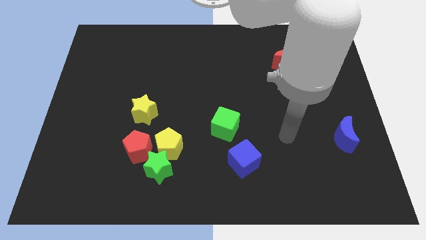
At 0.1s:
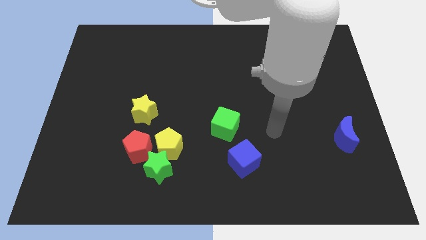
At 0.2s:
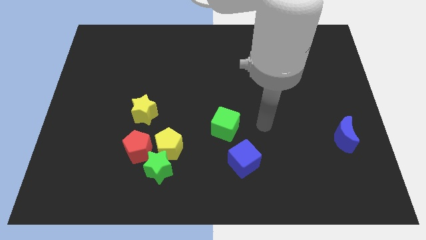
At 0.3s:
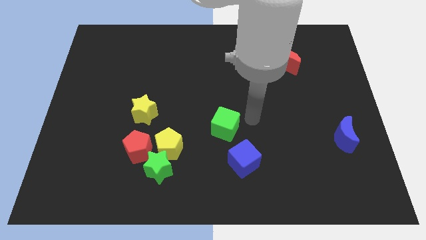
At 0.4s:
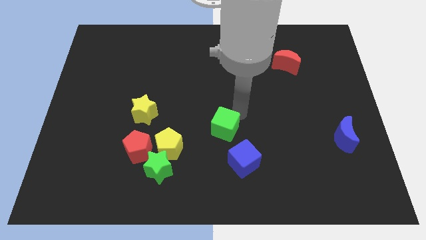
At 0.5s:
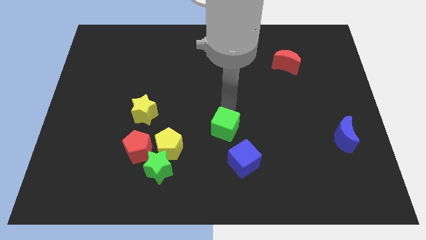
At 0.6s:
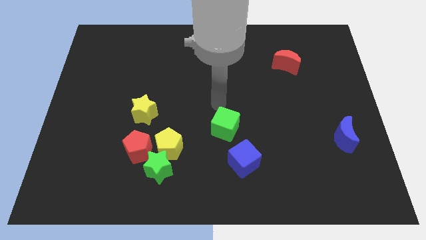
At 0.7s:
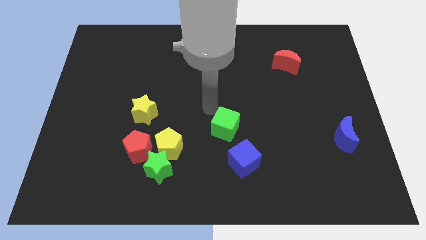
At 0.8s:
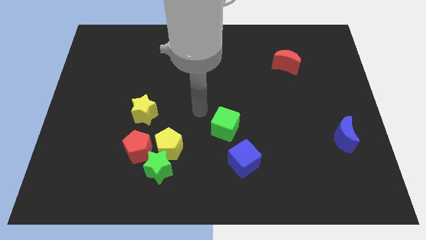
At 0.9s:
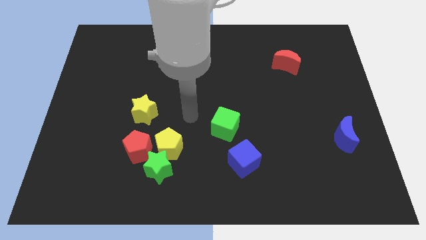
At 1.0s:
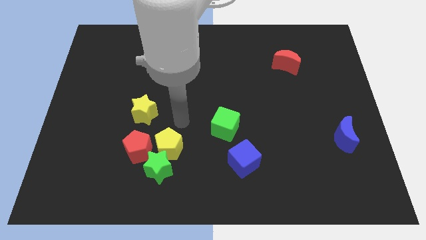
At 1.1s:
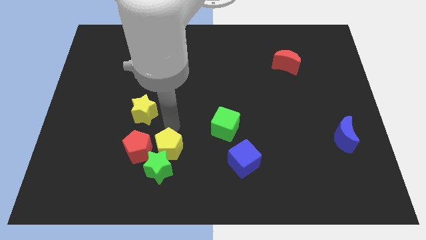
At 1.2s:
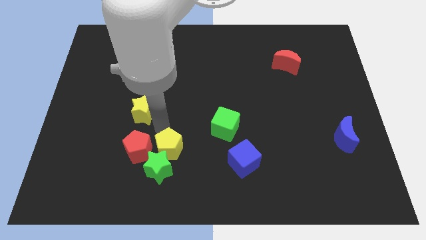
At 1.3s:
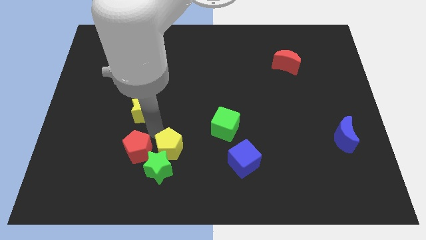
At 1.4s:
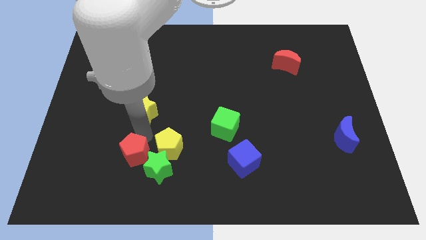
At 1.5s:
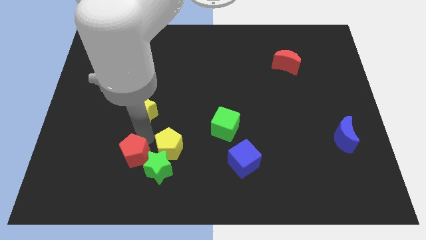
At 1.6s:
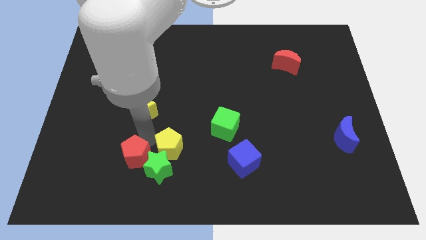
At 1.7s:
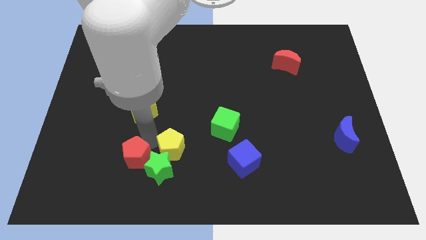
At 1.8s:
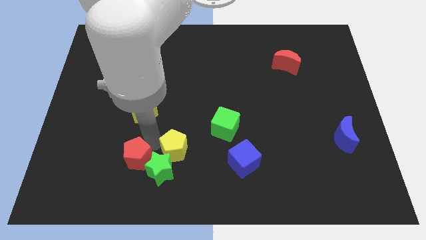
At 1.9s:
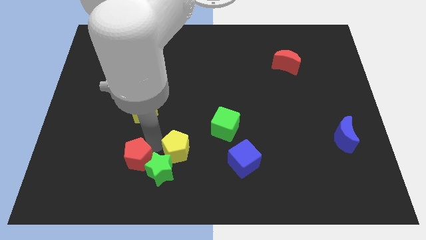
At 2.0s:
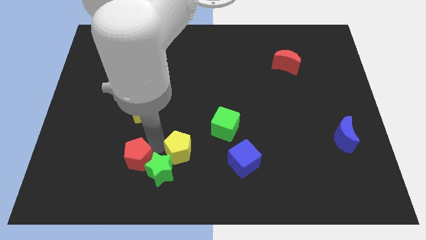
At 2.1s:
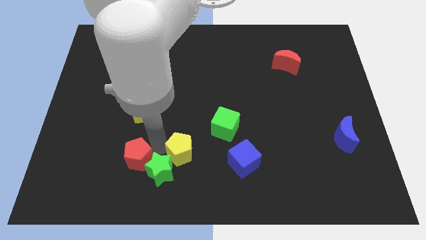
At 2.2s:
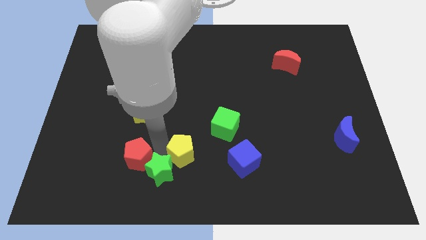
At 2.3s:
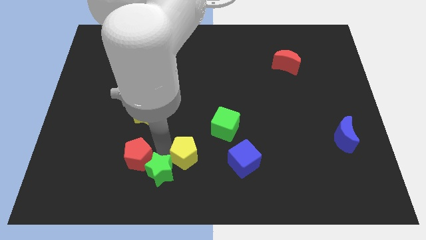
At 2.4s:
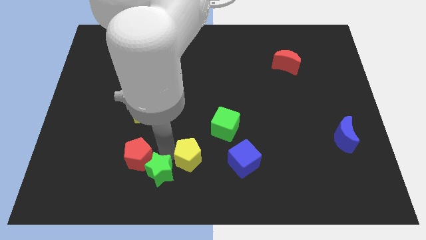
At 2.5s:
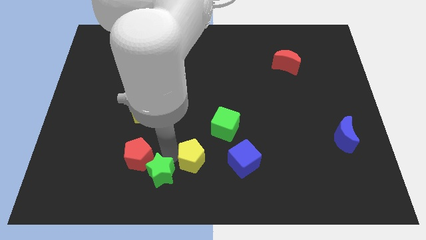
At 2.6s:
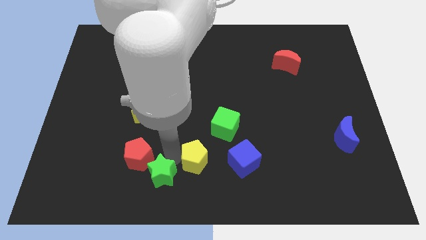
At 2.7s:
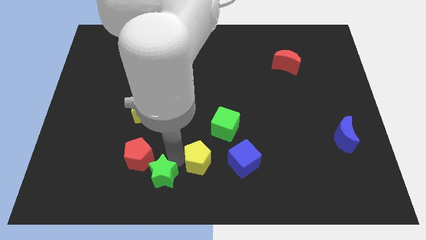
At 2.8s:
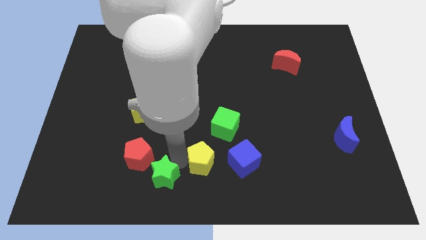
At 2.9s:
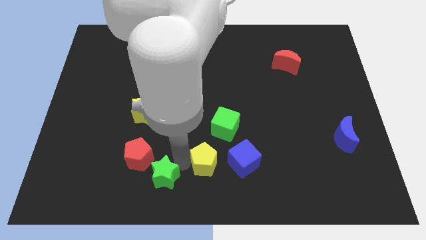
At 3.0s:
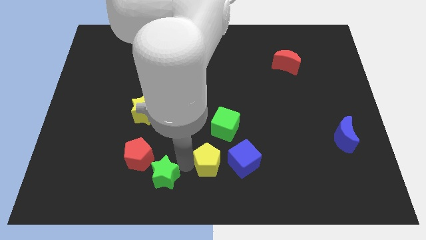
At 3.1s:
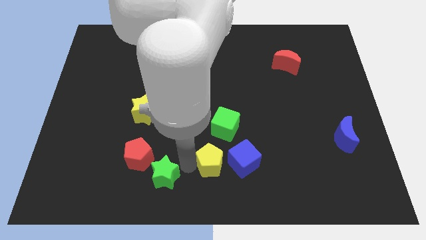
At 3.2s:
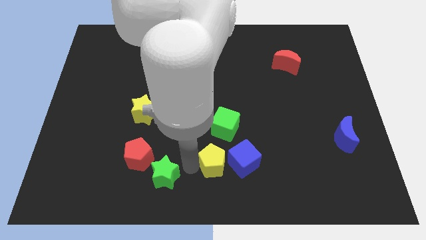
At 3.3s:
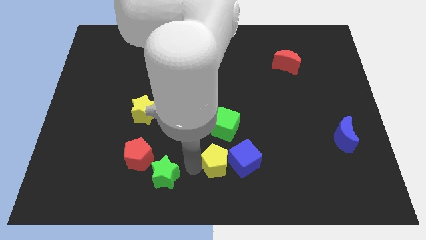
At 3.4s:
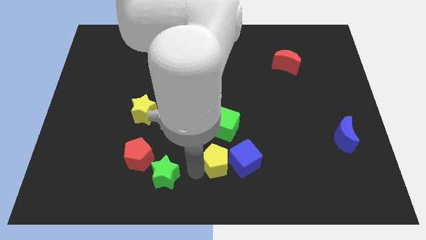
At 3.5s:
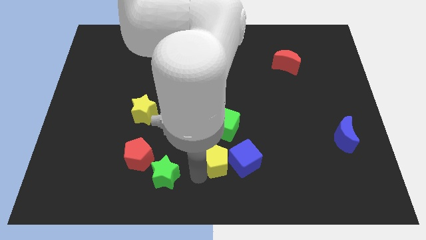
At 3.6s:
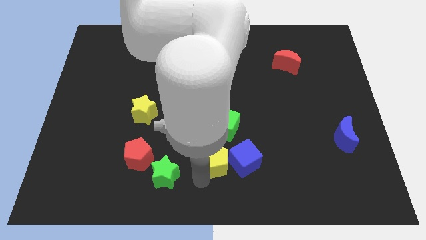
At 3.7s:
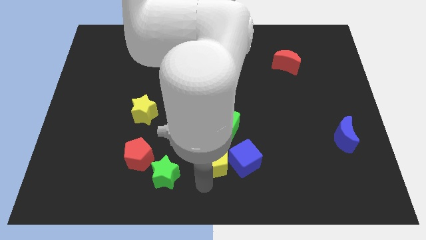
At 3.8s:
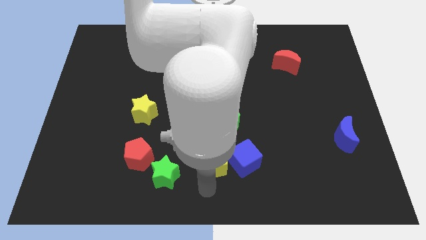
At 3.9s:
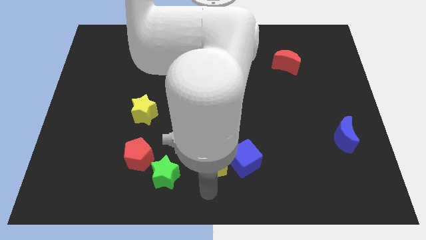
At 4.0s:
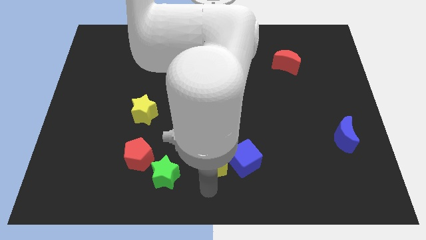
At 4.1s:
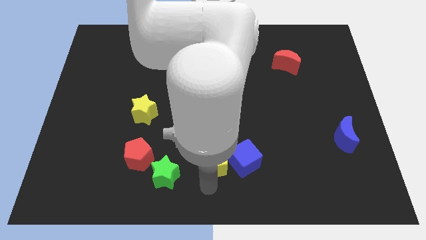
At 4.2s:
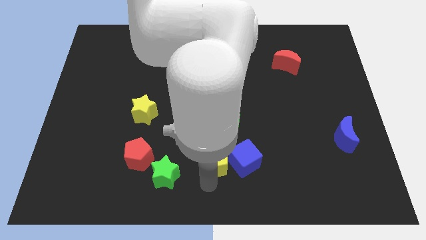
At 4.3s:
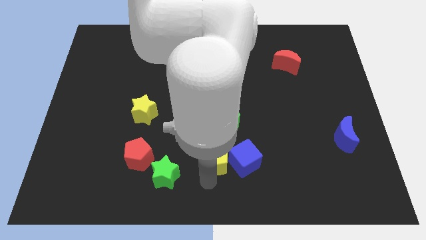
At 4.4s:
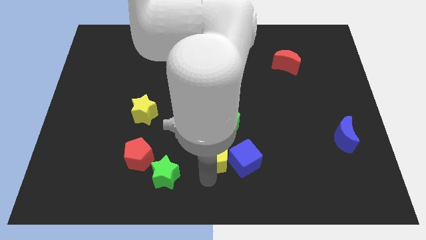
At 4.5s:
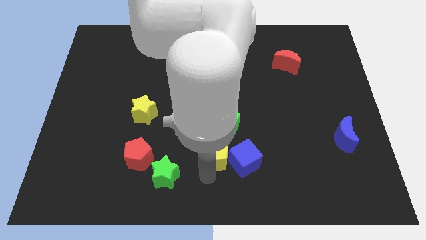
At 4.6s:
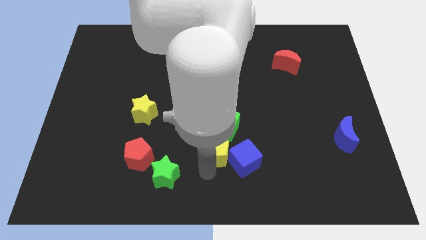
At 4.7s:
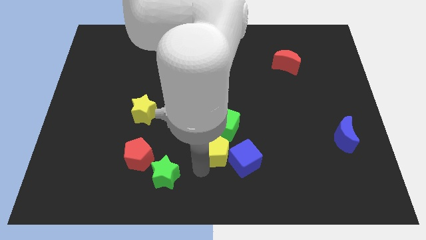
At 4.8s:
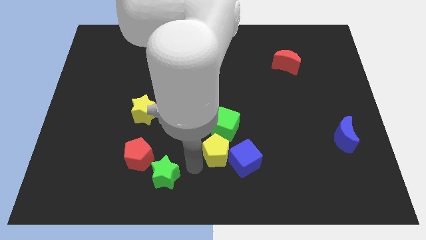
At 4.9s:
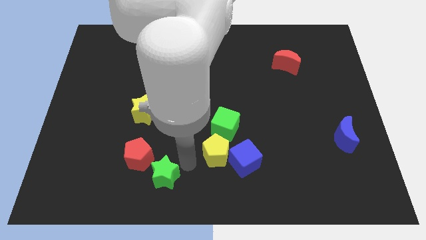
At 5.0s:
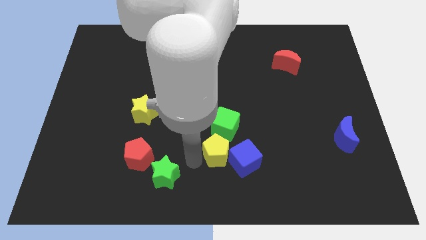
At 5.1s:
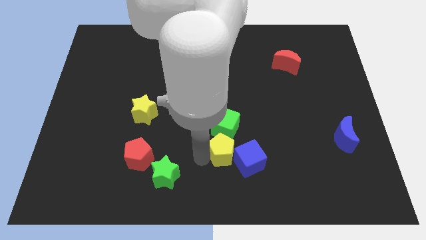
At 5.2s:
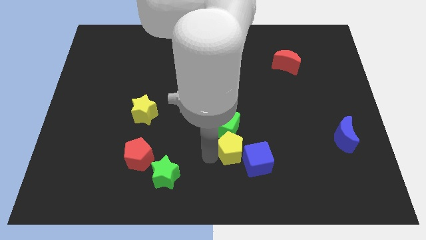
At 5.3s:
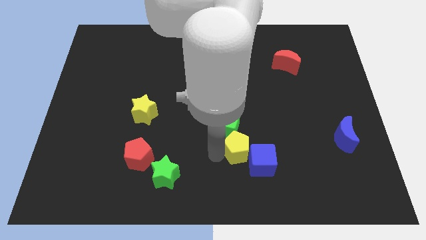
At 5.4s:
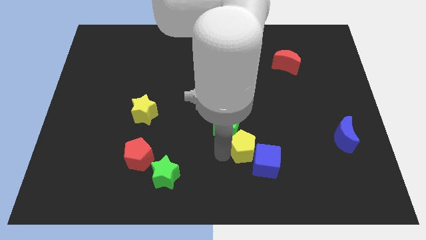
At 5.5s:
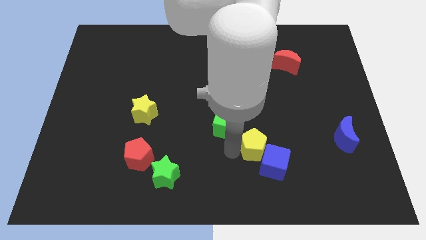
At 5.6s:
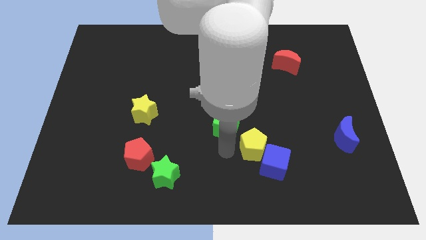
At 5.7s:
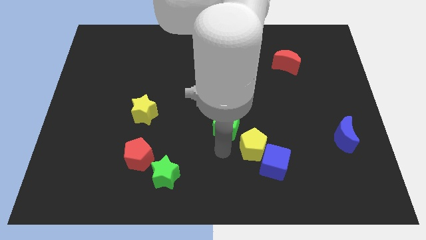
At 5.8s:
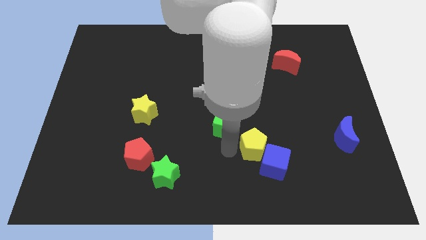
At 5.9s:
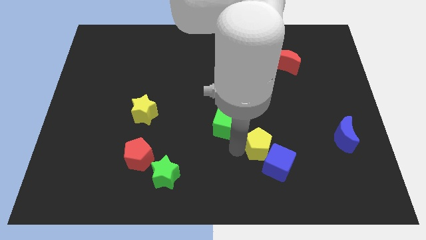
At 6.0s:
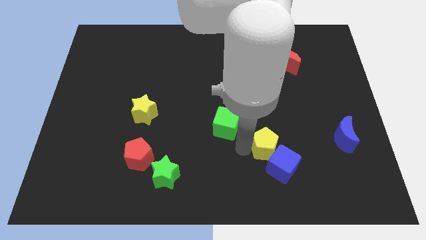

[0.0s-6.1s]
move the yellow pentagon right

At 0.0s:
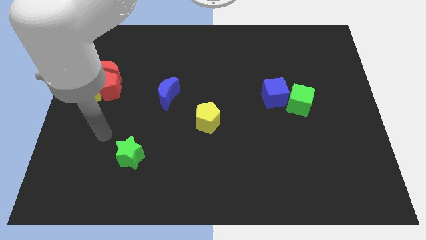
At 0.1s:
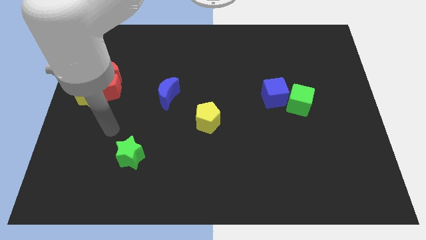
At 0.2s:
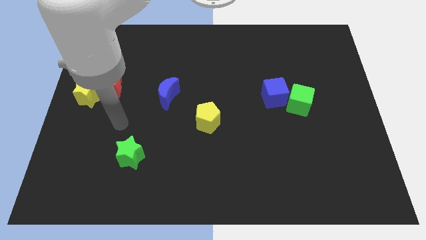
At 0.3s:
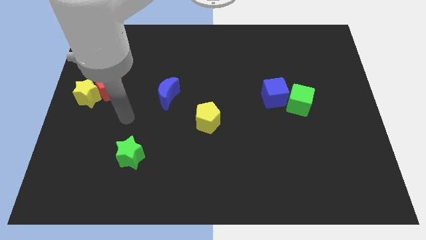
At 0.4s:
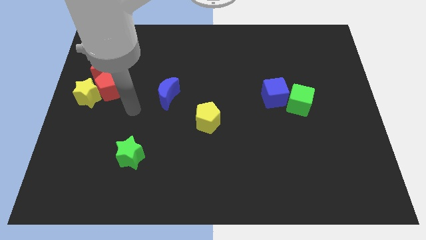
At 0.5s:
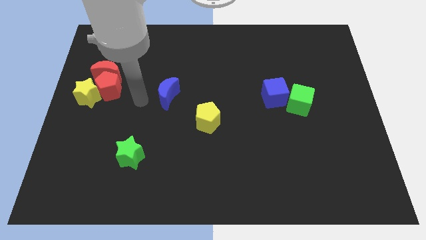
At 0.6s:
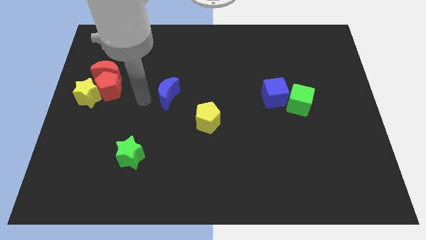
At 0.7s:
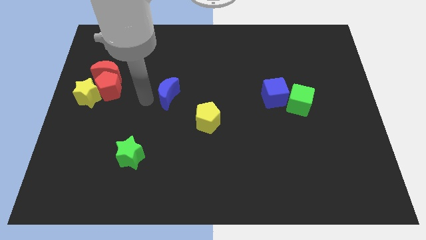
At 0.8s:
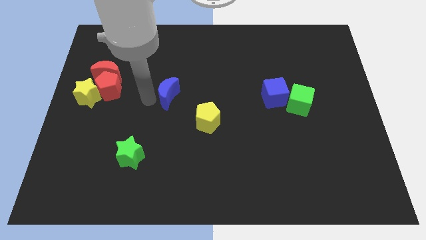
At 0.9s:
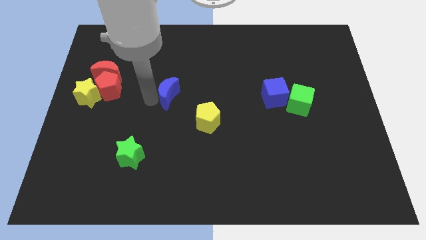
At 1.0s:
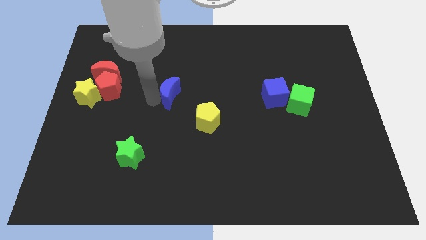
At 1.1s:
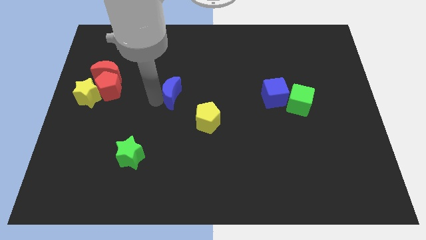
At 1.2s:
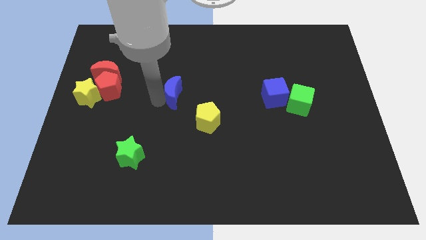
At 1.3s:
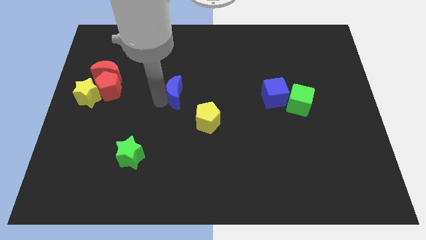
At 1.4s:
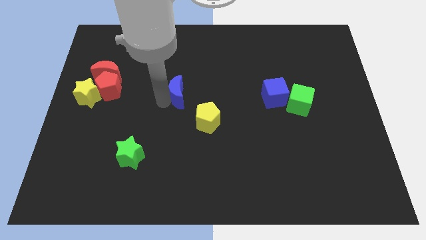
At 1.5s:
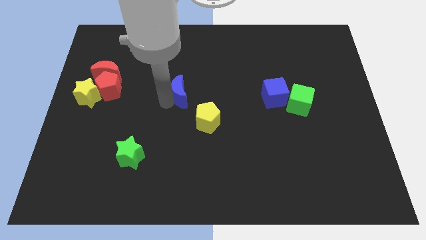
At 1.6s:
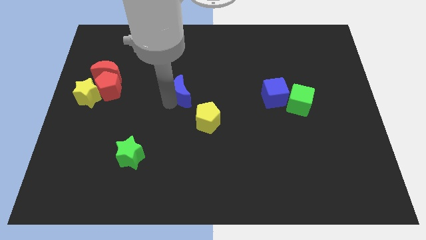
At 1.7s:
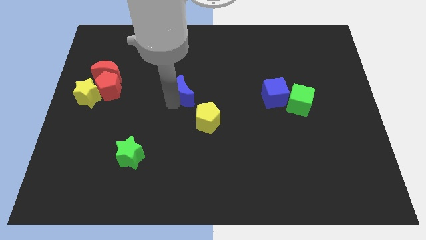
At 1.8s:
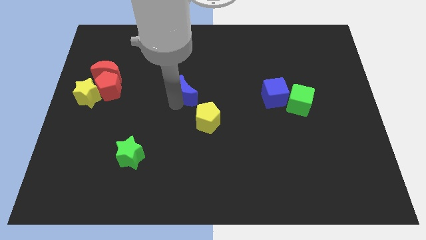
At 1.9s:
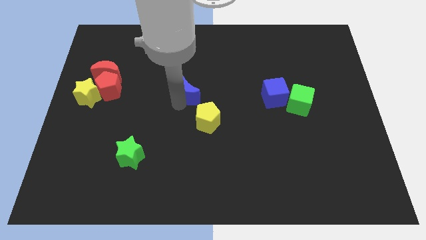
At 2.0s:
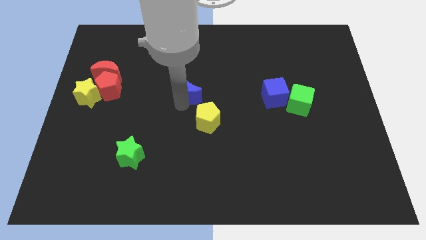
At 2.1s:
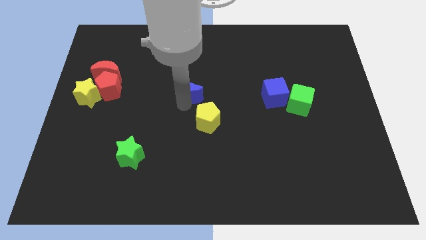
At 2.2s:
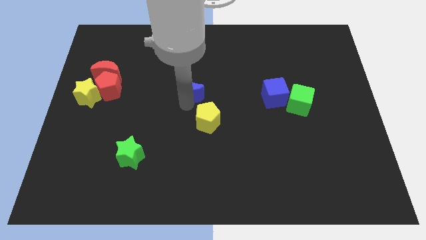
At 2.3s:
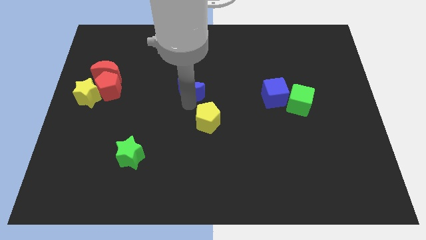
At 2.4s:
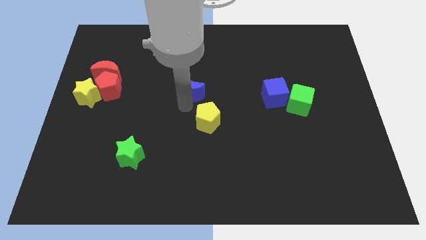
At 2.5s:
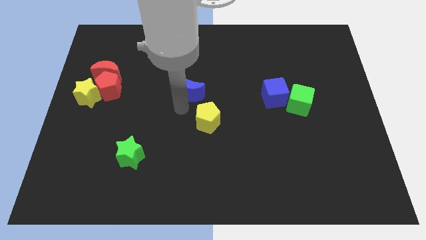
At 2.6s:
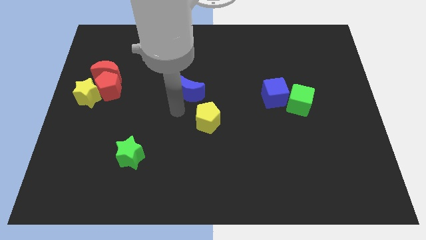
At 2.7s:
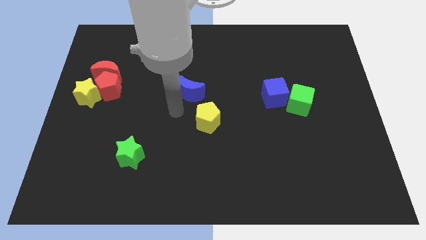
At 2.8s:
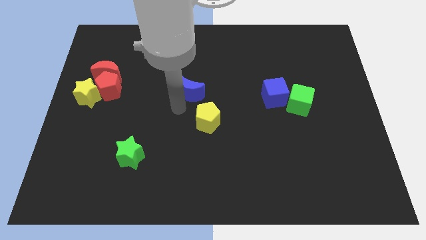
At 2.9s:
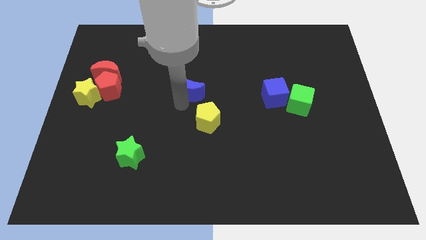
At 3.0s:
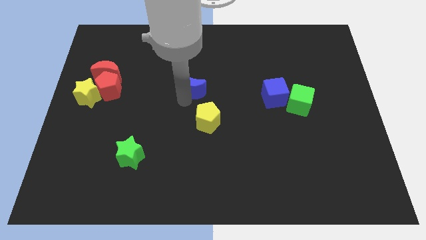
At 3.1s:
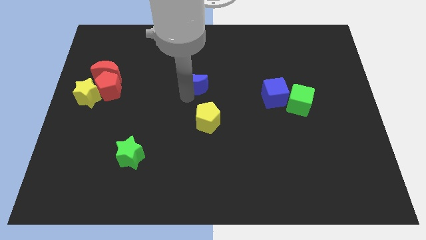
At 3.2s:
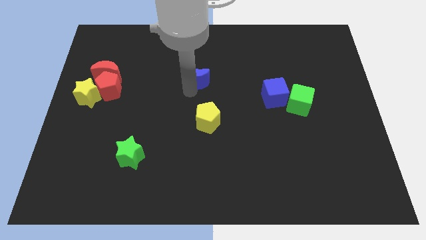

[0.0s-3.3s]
slightly move the blue moon upwards and then to the right
